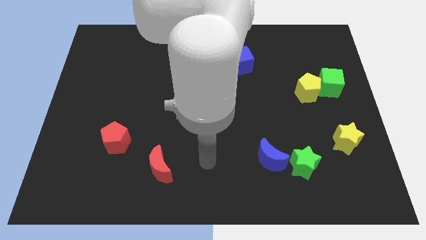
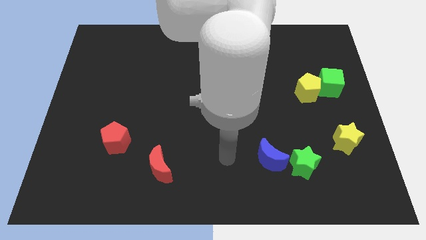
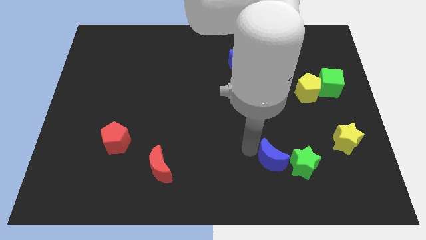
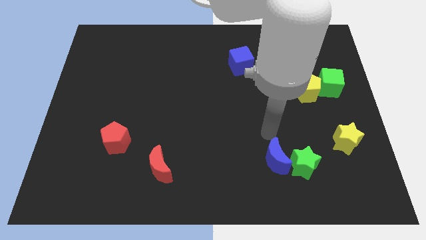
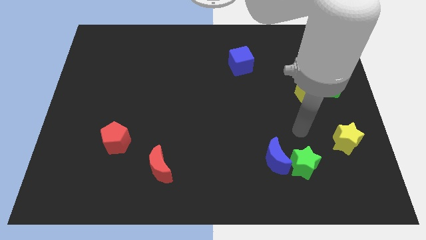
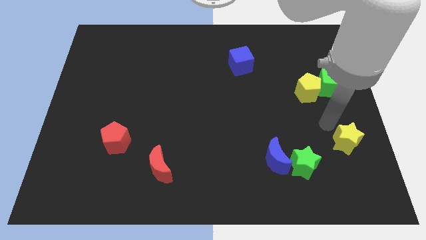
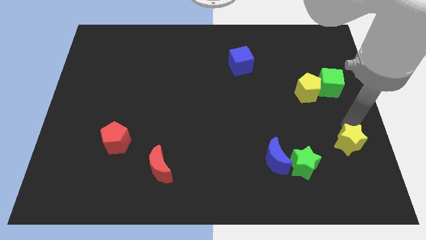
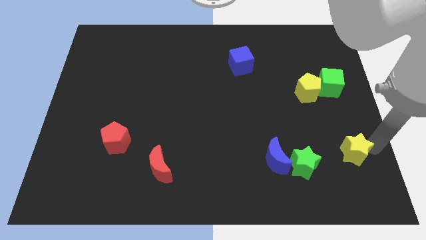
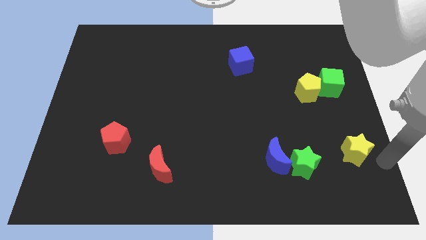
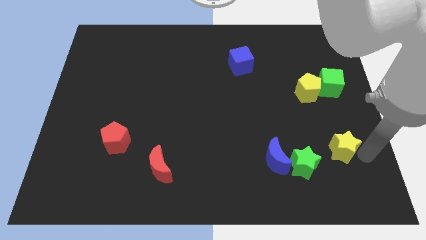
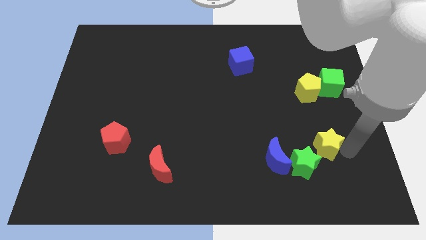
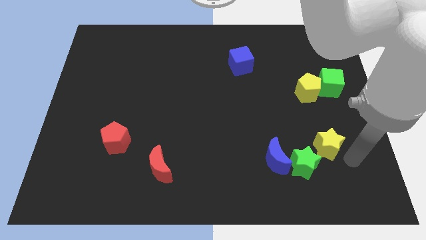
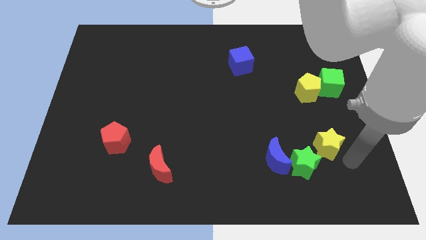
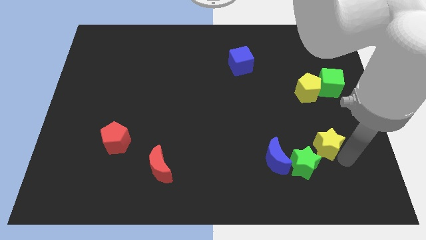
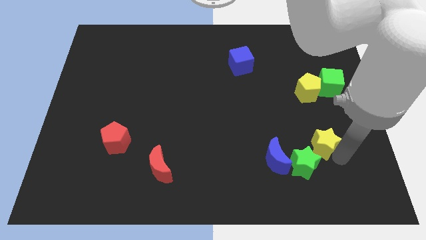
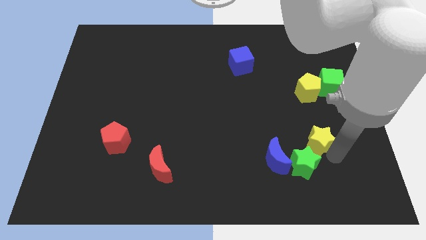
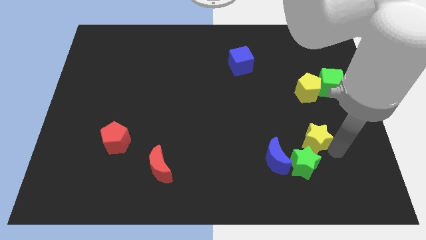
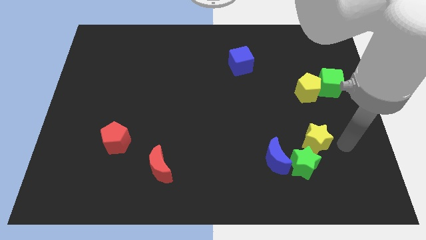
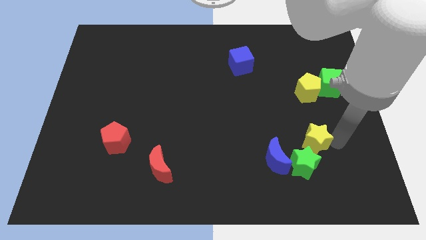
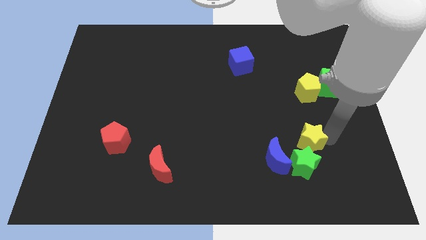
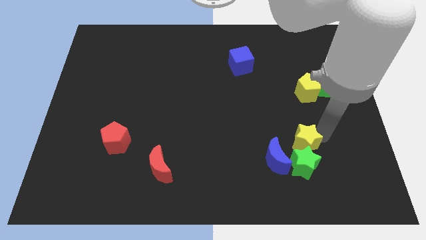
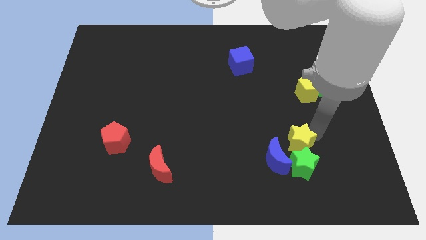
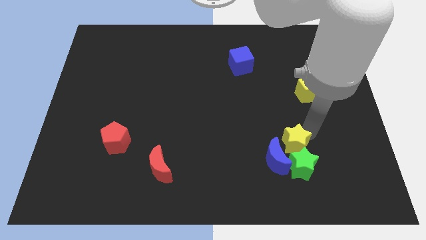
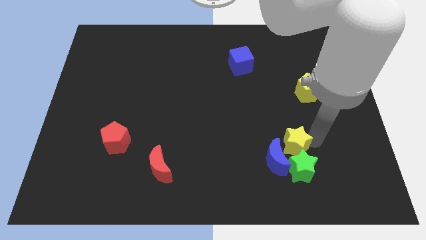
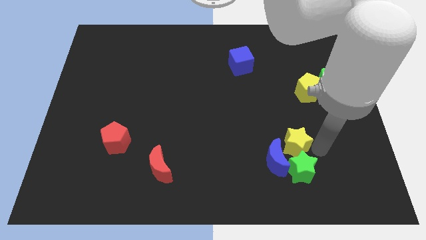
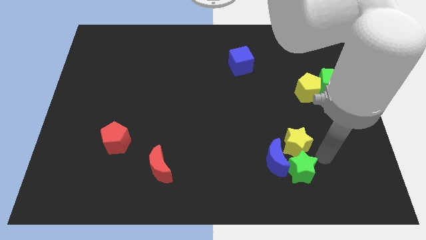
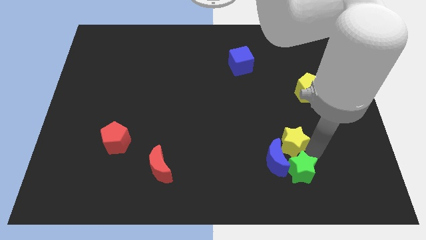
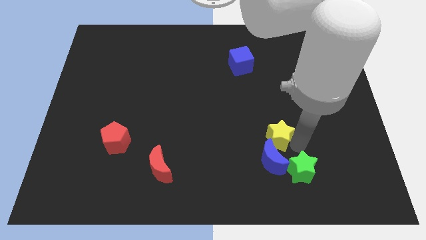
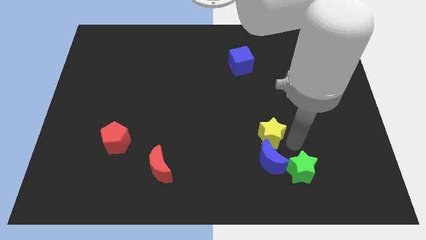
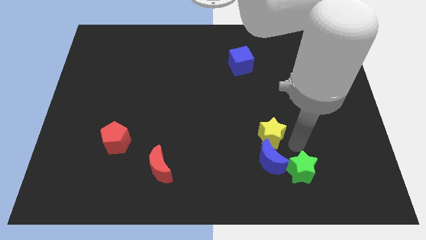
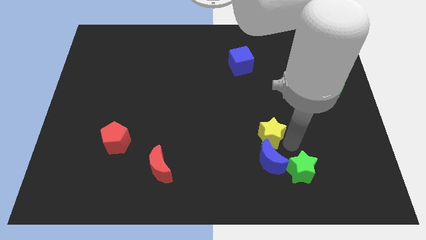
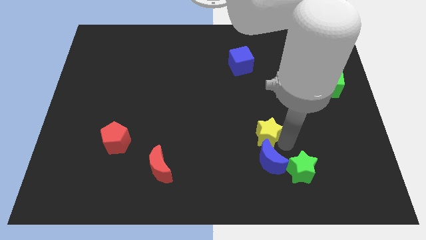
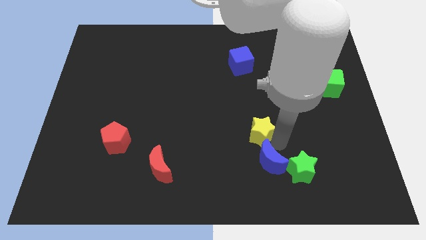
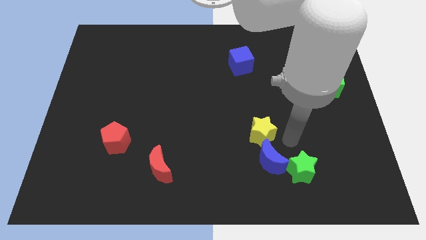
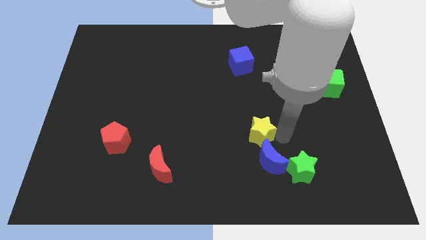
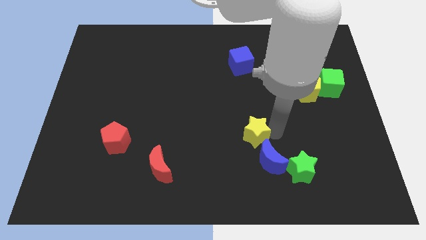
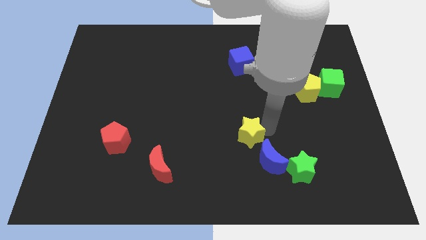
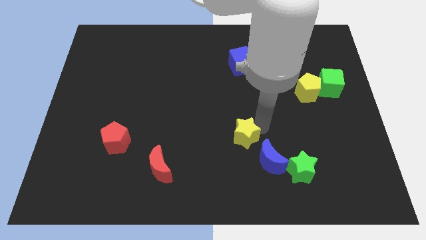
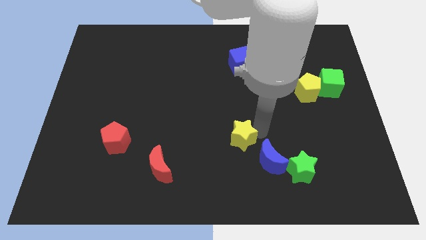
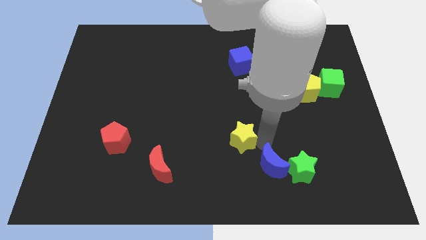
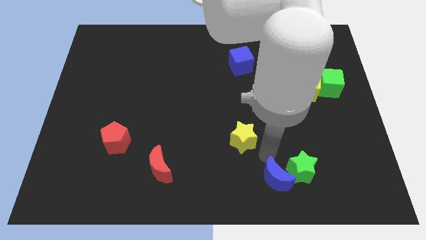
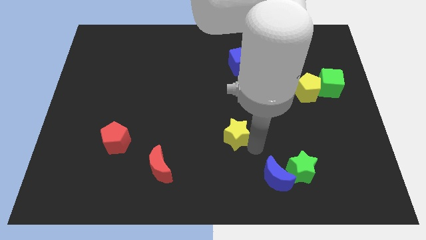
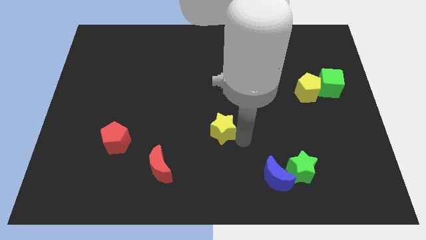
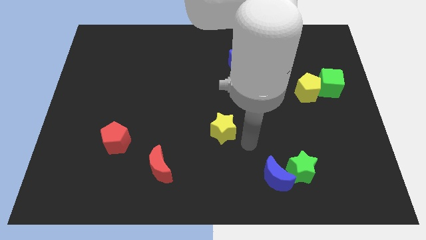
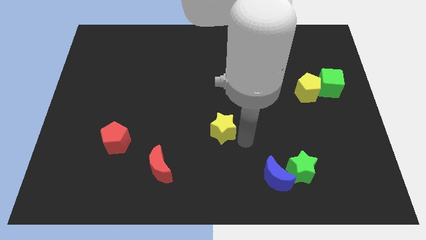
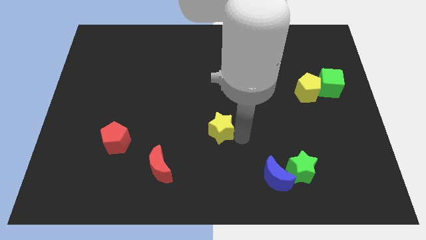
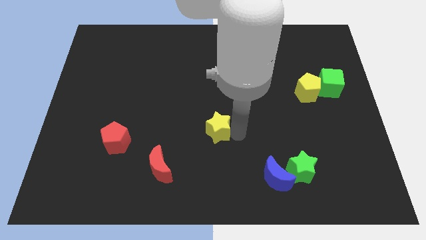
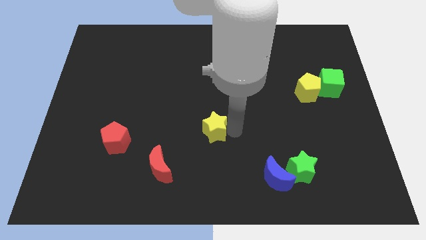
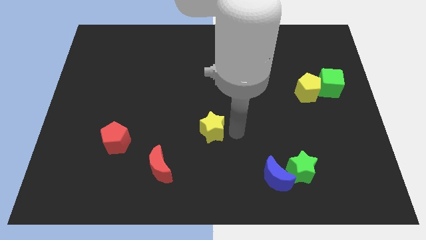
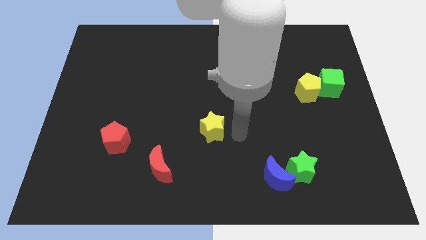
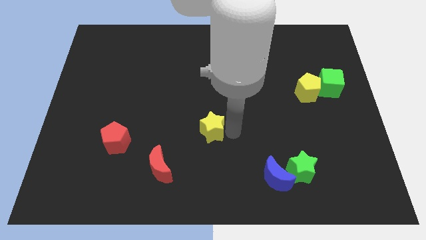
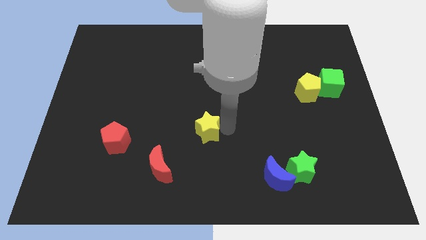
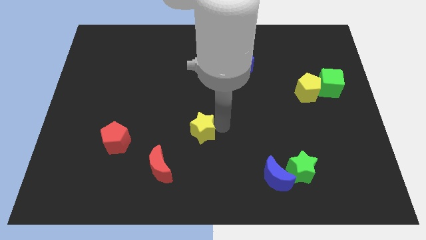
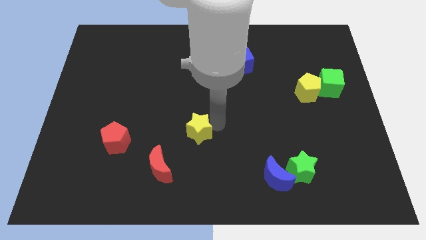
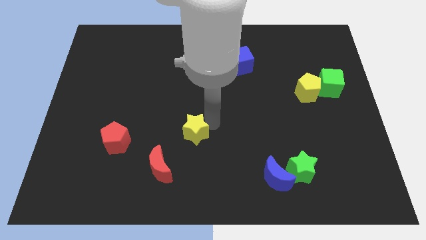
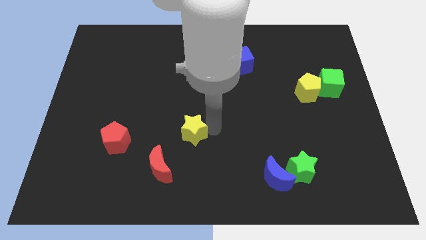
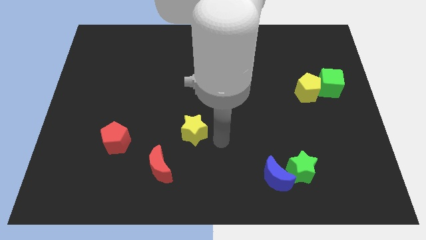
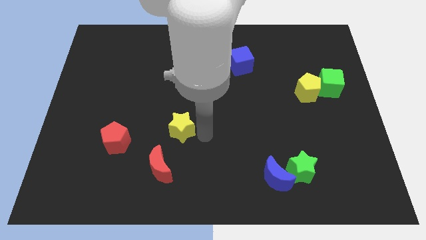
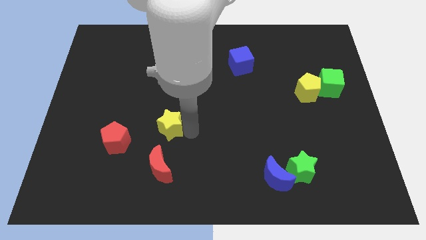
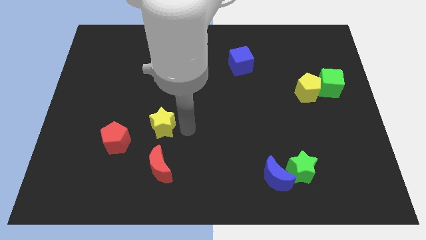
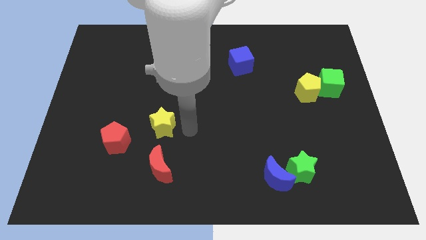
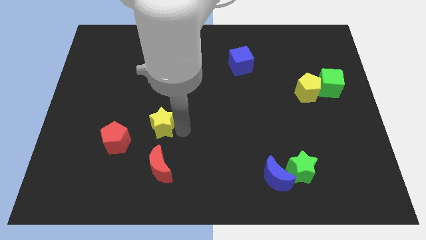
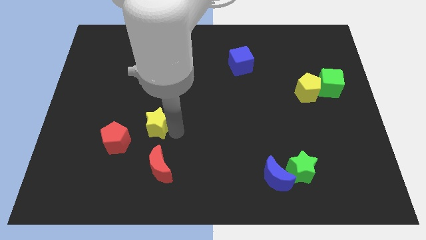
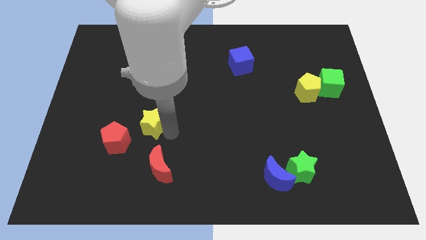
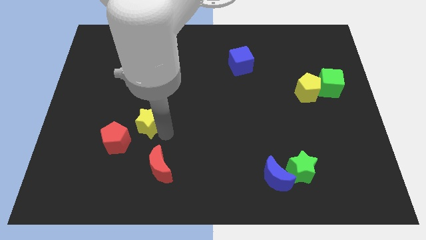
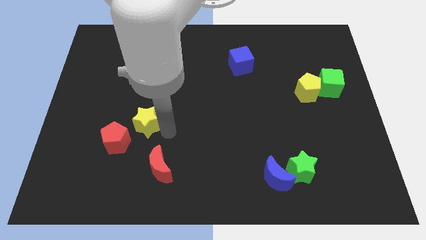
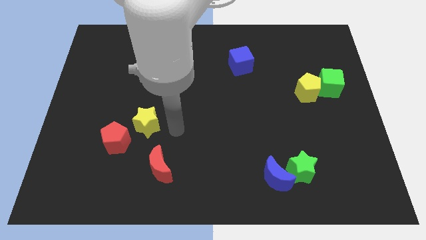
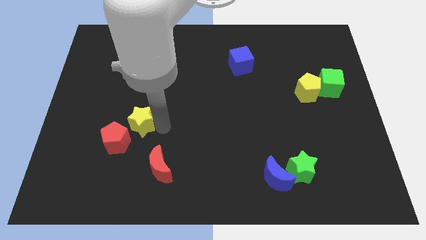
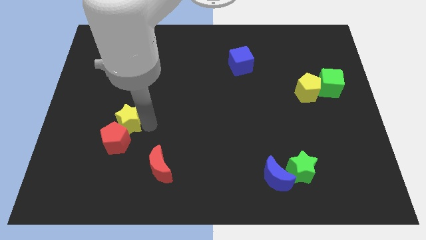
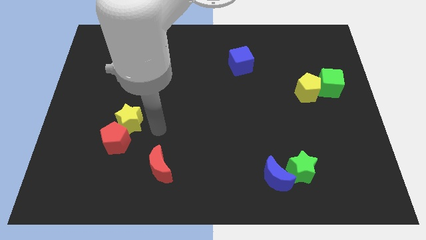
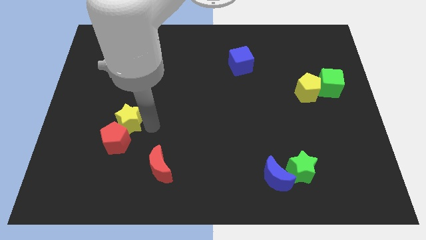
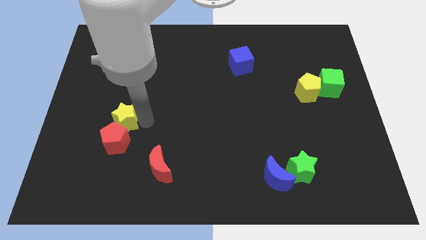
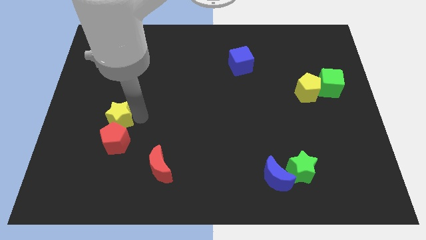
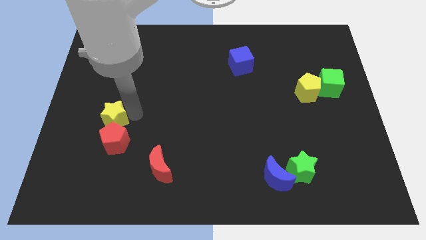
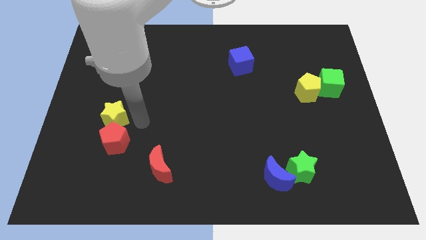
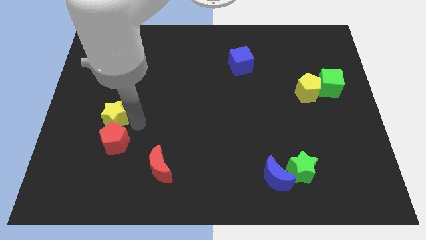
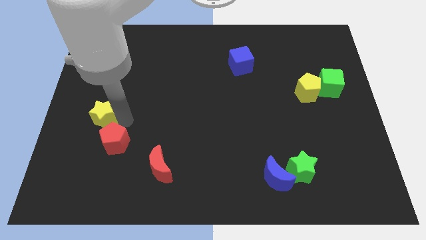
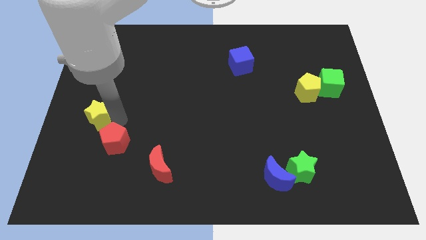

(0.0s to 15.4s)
move the yellow star to the left side
